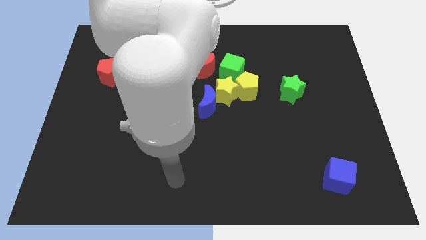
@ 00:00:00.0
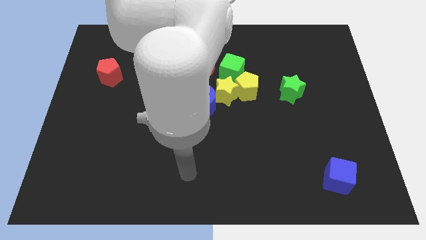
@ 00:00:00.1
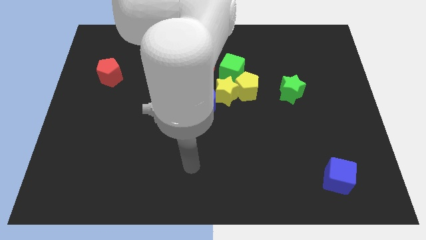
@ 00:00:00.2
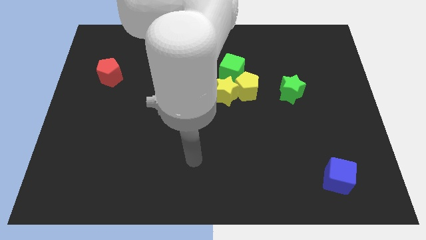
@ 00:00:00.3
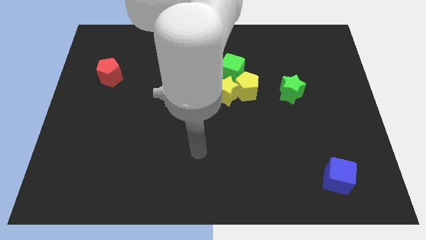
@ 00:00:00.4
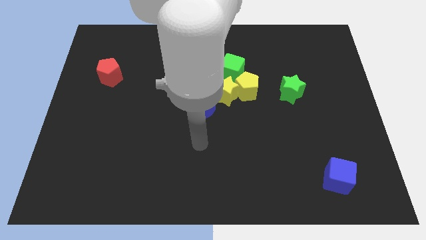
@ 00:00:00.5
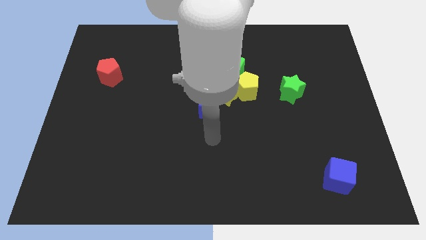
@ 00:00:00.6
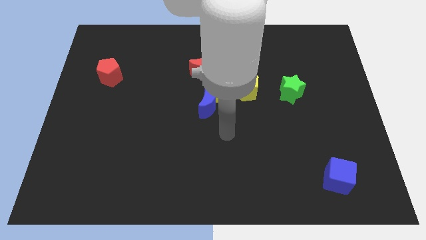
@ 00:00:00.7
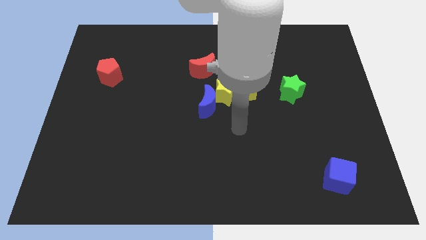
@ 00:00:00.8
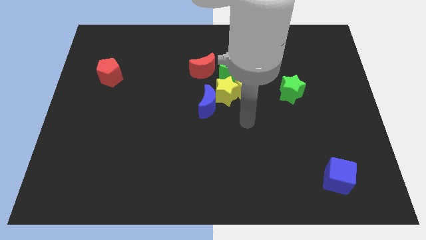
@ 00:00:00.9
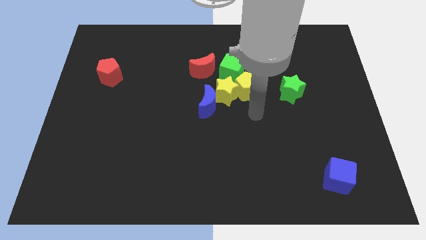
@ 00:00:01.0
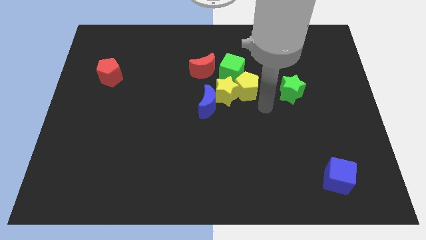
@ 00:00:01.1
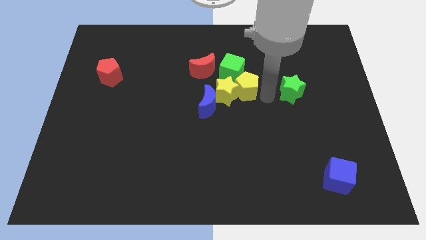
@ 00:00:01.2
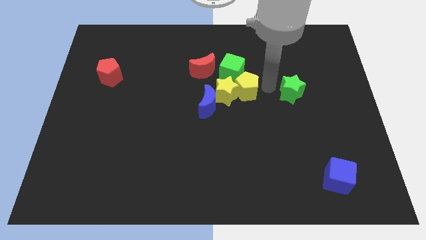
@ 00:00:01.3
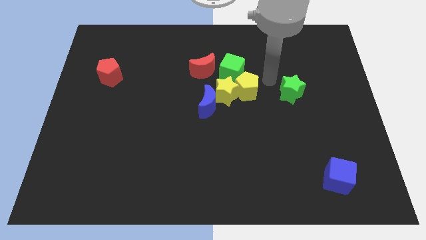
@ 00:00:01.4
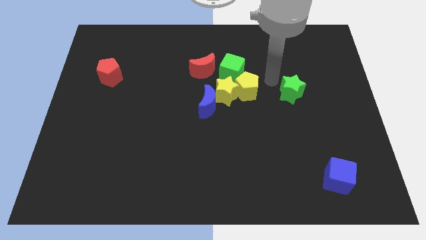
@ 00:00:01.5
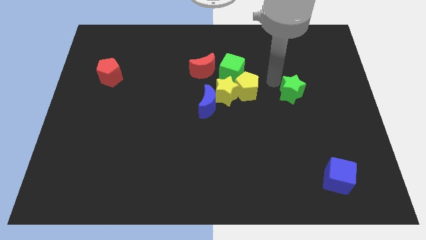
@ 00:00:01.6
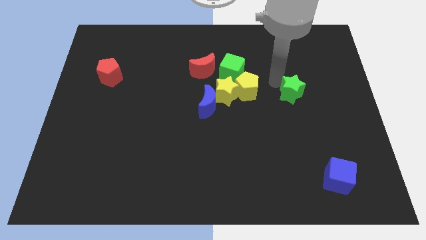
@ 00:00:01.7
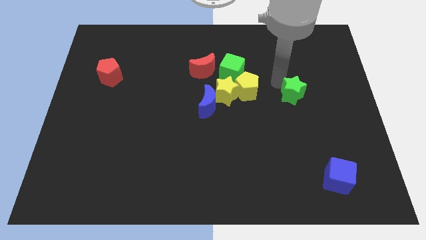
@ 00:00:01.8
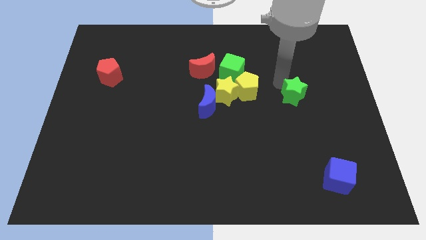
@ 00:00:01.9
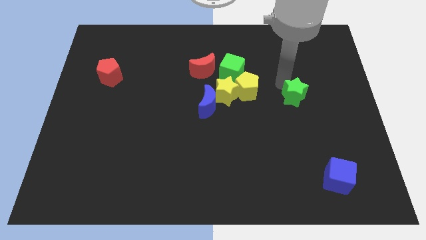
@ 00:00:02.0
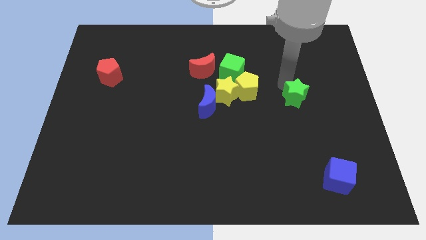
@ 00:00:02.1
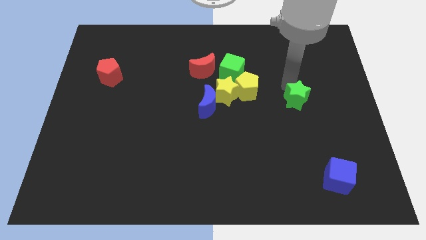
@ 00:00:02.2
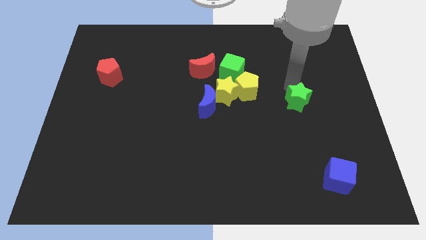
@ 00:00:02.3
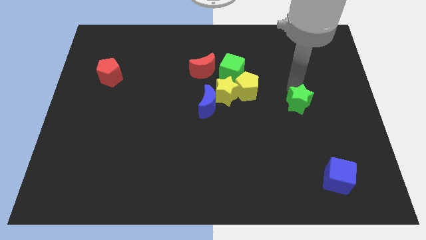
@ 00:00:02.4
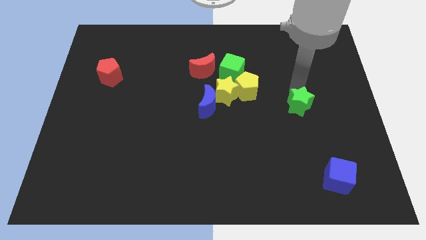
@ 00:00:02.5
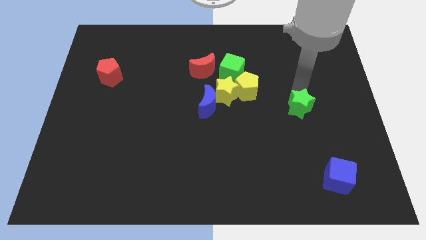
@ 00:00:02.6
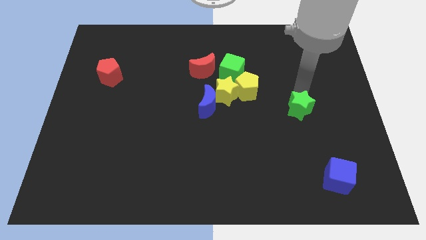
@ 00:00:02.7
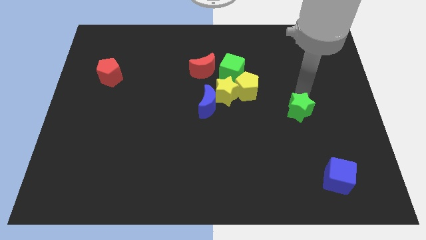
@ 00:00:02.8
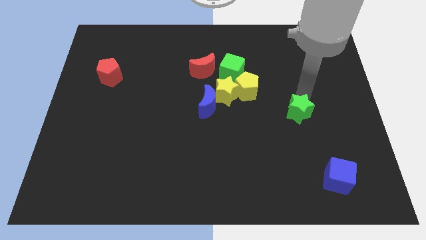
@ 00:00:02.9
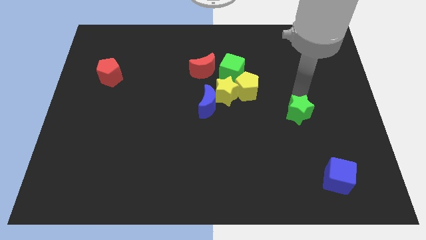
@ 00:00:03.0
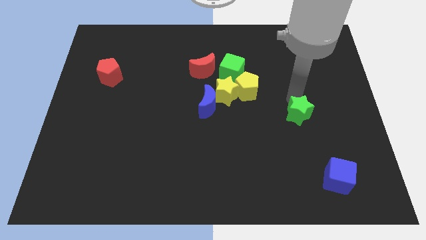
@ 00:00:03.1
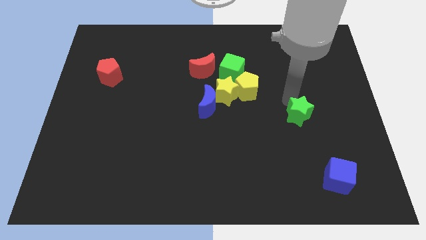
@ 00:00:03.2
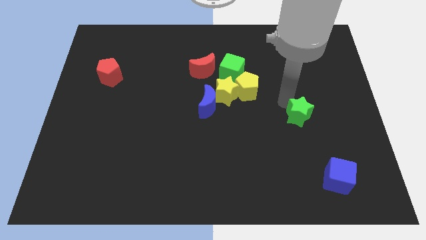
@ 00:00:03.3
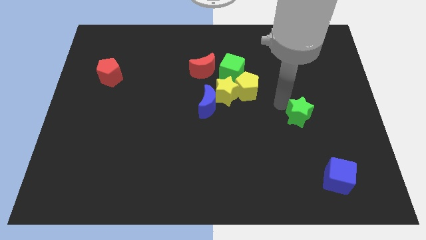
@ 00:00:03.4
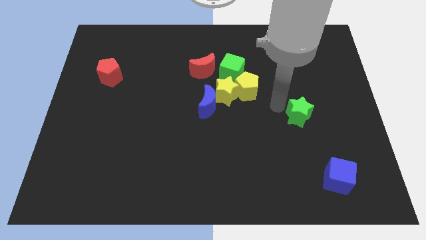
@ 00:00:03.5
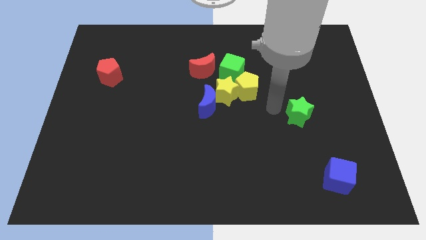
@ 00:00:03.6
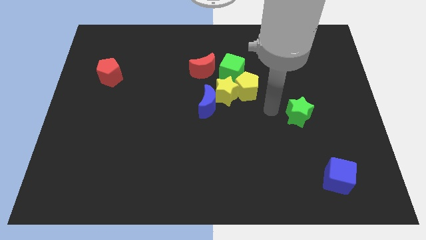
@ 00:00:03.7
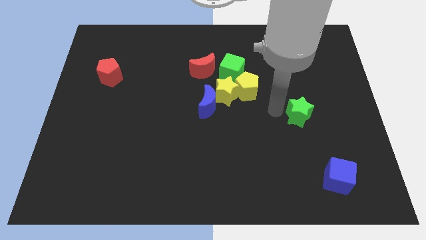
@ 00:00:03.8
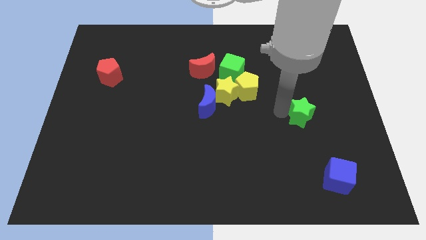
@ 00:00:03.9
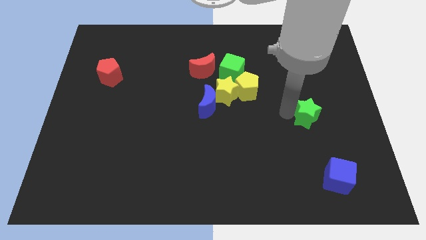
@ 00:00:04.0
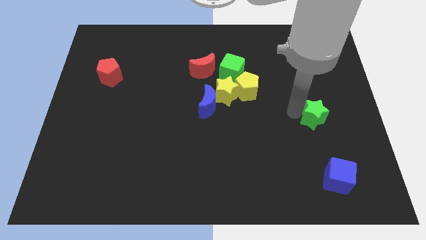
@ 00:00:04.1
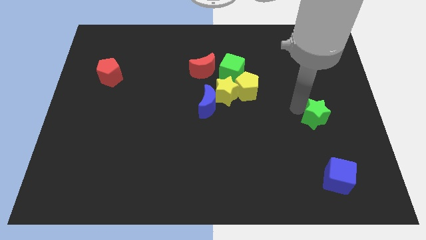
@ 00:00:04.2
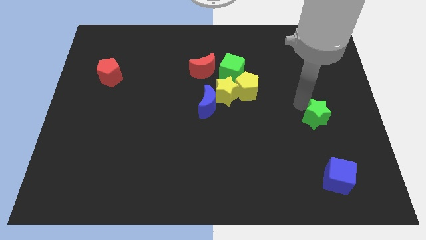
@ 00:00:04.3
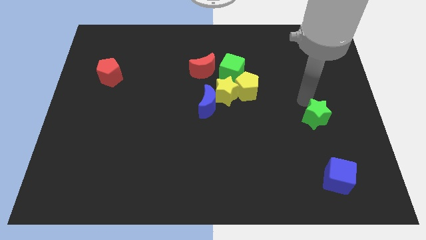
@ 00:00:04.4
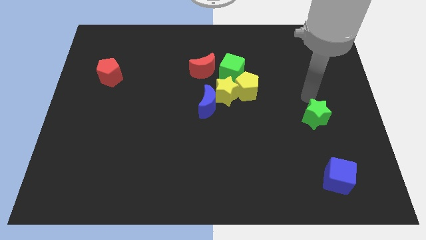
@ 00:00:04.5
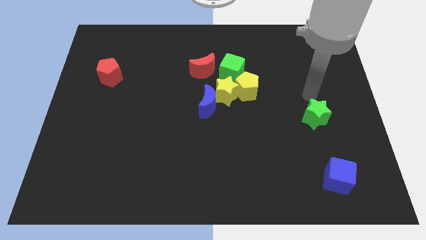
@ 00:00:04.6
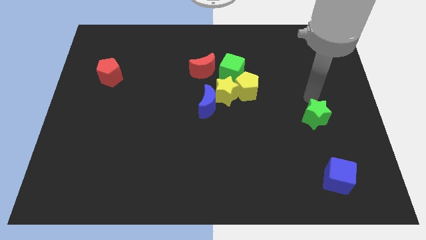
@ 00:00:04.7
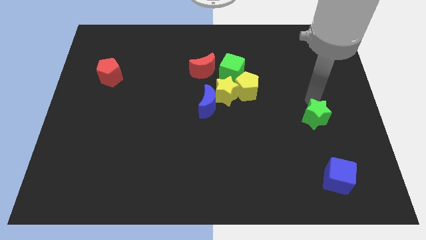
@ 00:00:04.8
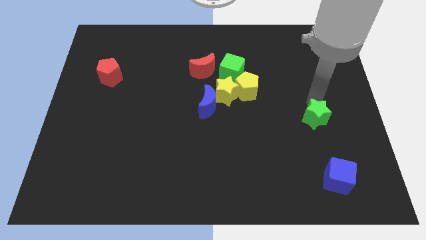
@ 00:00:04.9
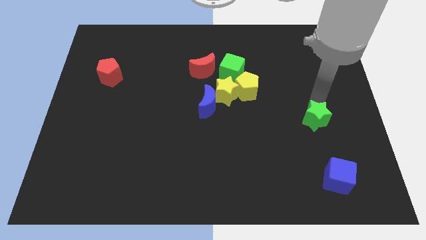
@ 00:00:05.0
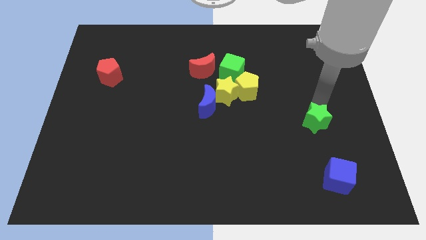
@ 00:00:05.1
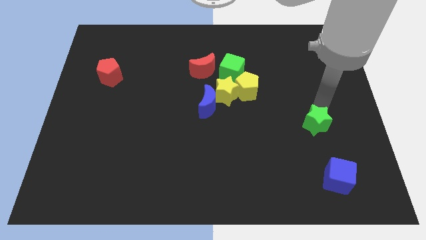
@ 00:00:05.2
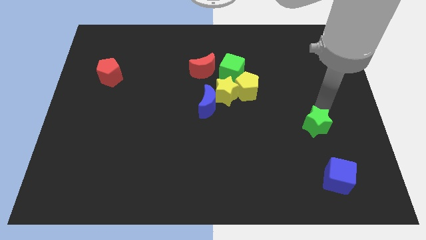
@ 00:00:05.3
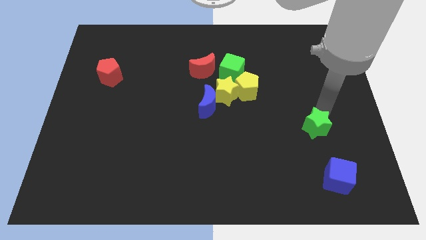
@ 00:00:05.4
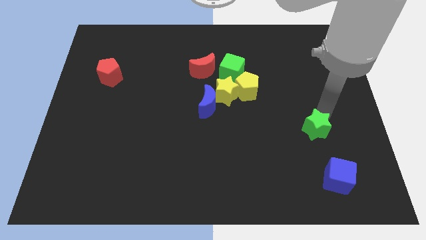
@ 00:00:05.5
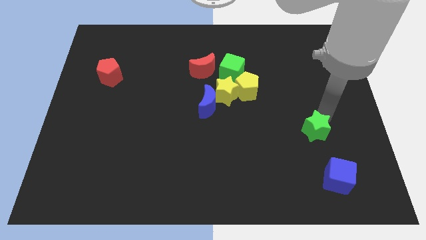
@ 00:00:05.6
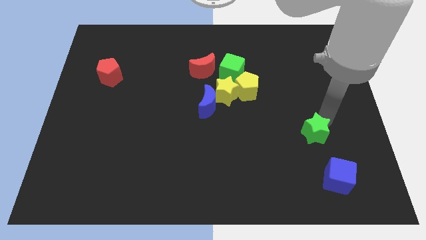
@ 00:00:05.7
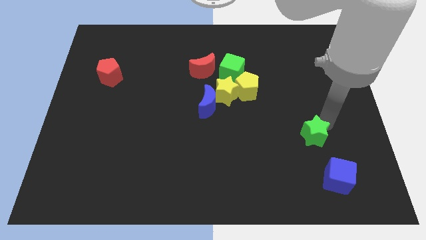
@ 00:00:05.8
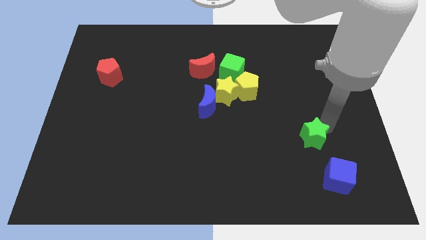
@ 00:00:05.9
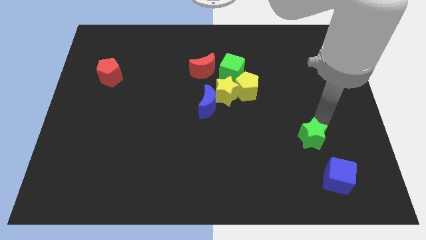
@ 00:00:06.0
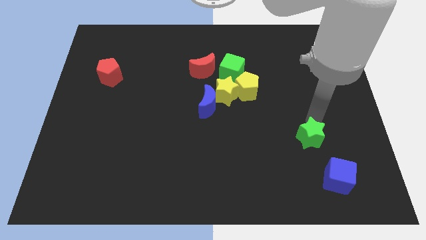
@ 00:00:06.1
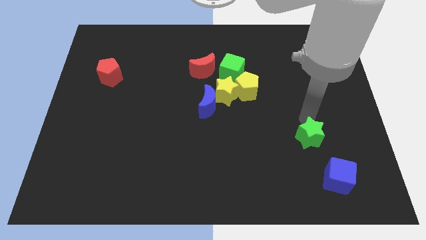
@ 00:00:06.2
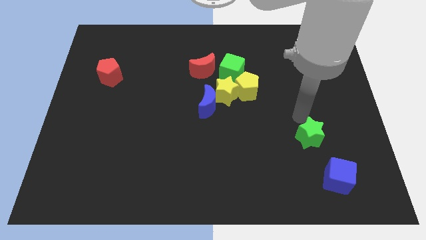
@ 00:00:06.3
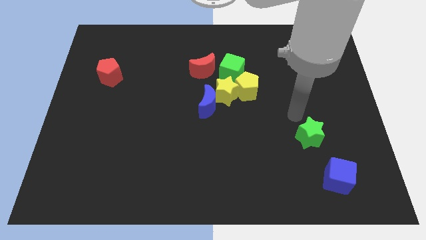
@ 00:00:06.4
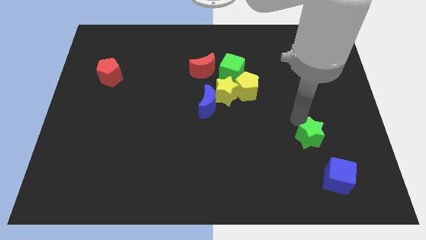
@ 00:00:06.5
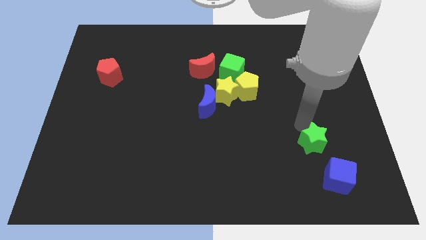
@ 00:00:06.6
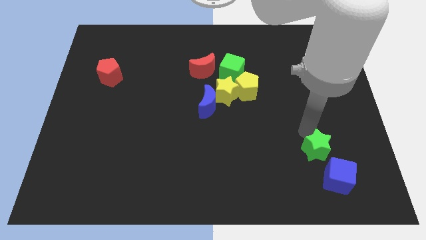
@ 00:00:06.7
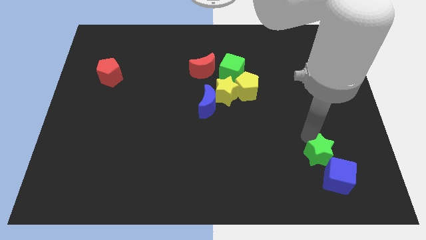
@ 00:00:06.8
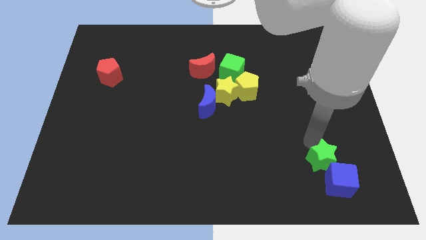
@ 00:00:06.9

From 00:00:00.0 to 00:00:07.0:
push the green star close to the blue cube

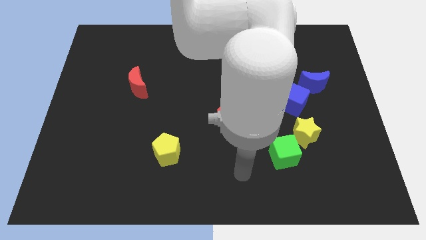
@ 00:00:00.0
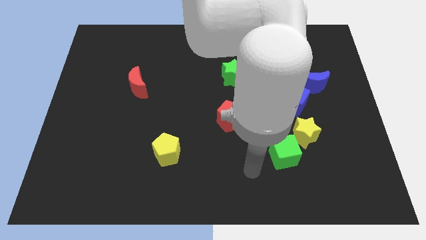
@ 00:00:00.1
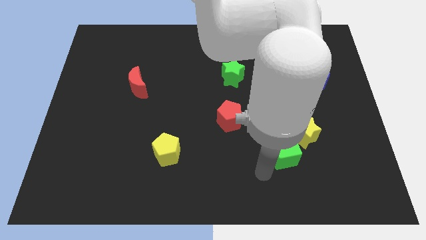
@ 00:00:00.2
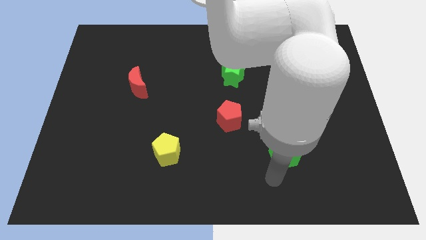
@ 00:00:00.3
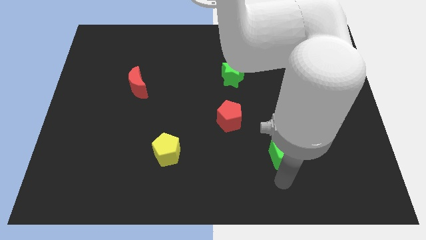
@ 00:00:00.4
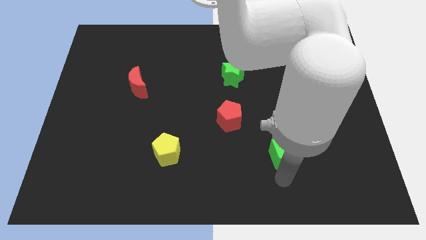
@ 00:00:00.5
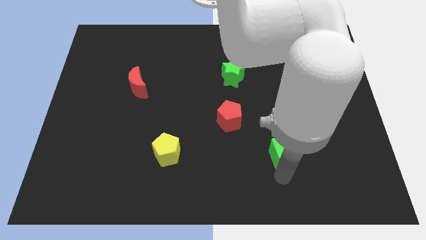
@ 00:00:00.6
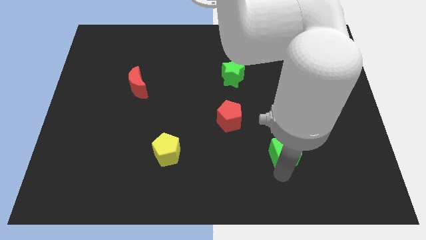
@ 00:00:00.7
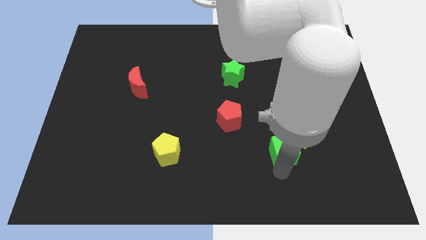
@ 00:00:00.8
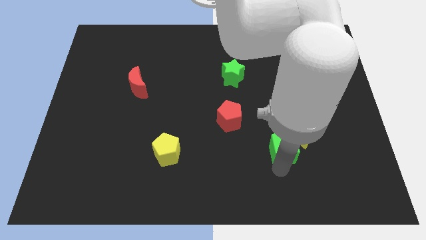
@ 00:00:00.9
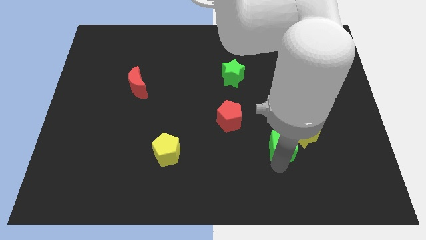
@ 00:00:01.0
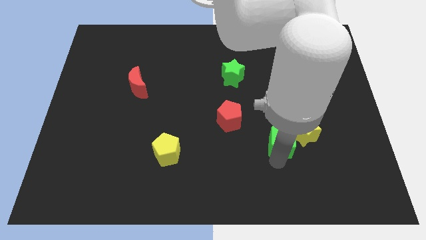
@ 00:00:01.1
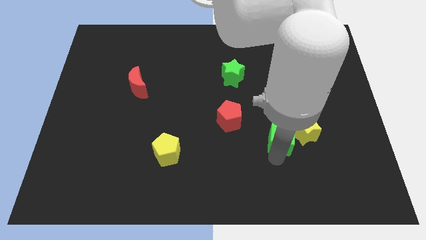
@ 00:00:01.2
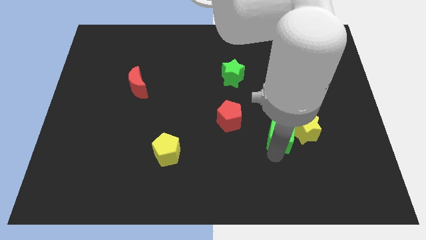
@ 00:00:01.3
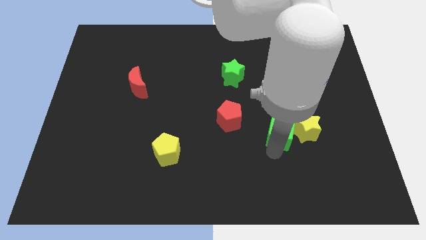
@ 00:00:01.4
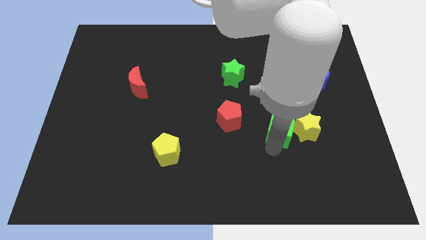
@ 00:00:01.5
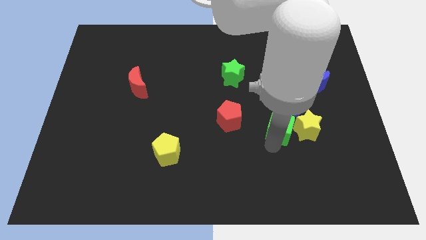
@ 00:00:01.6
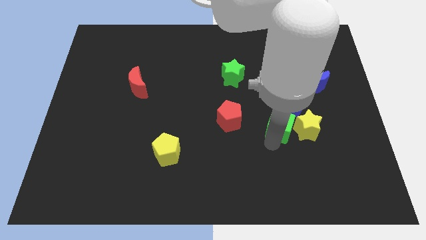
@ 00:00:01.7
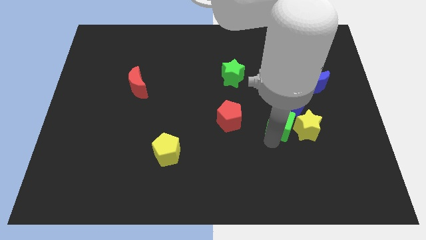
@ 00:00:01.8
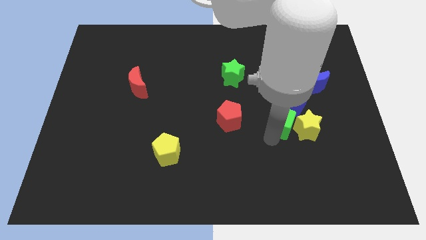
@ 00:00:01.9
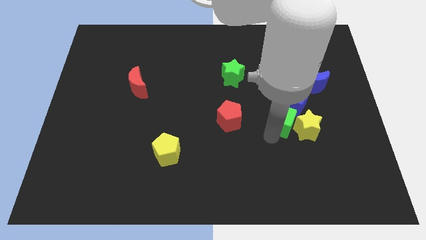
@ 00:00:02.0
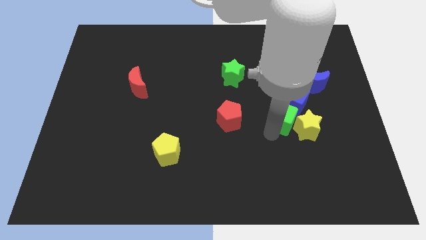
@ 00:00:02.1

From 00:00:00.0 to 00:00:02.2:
put the green cube to the blue cube
